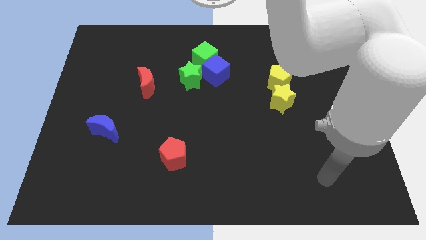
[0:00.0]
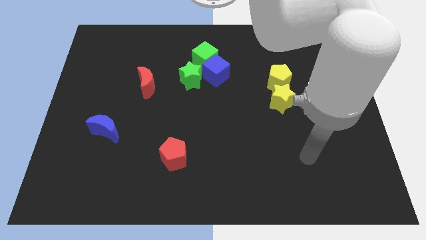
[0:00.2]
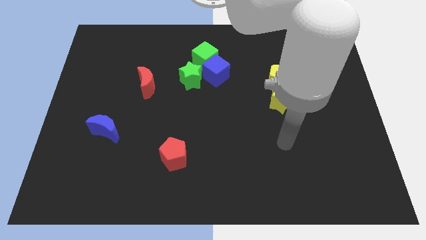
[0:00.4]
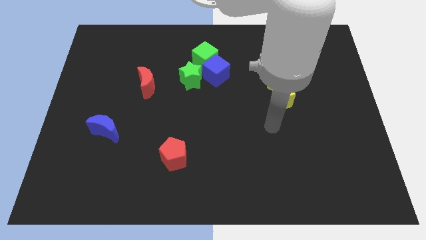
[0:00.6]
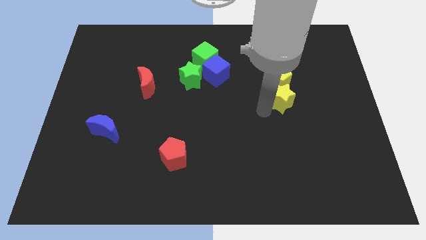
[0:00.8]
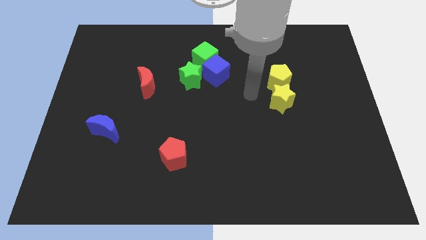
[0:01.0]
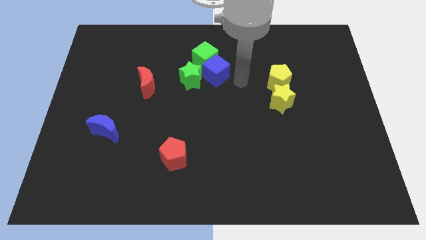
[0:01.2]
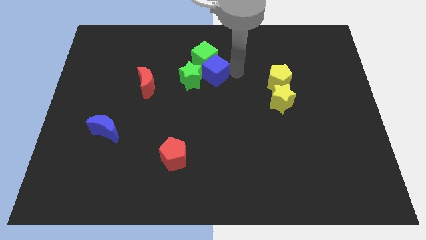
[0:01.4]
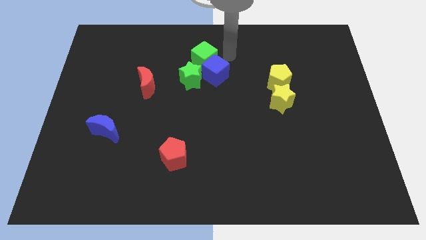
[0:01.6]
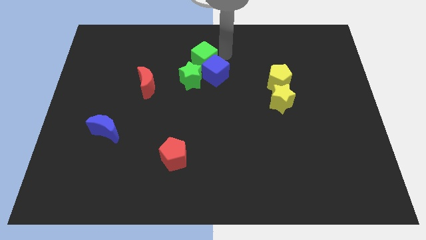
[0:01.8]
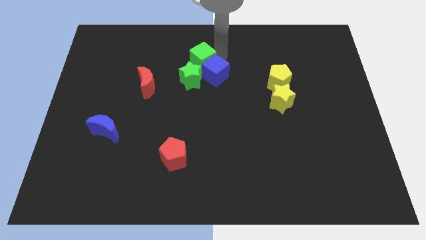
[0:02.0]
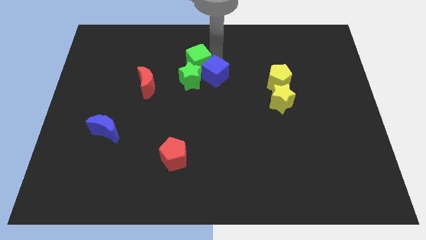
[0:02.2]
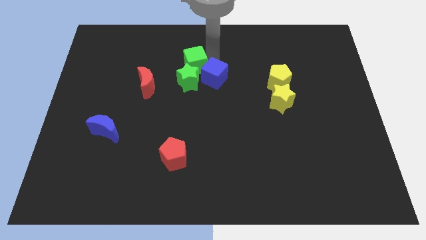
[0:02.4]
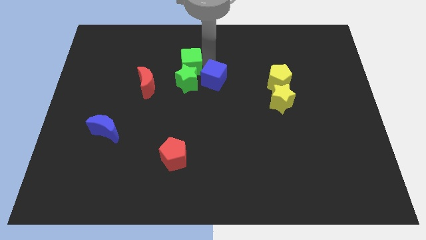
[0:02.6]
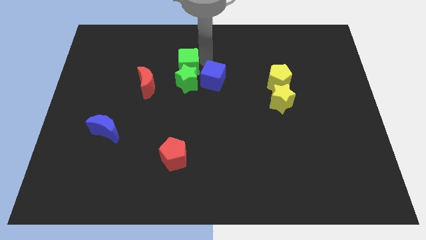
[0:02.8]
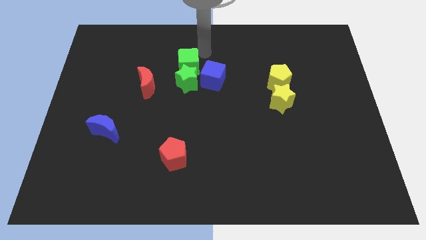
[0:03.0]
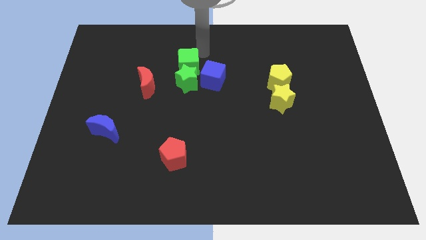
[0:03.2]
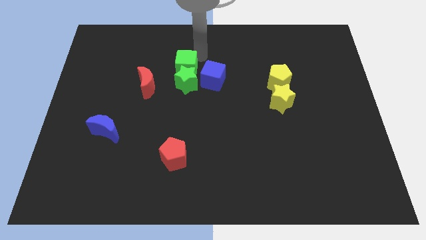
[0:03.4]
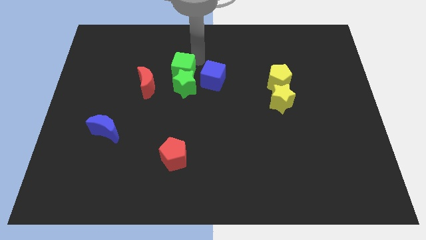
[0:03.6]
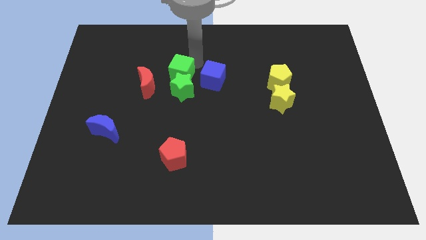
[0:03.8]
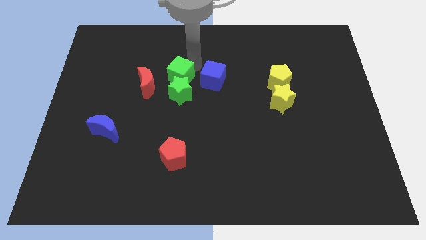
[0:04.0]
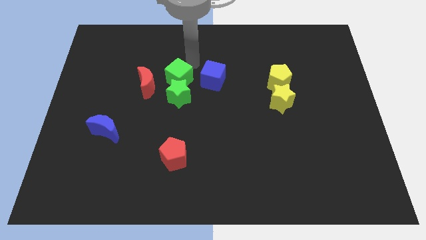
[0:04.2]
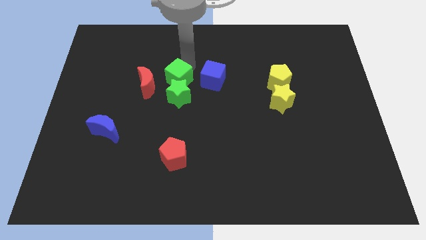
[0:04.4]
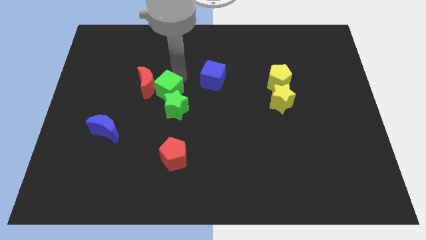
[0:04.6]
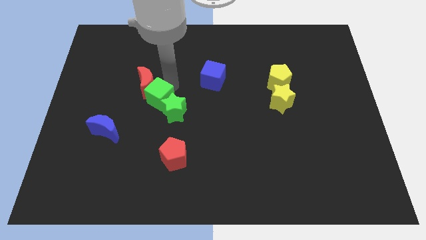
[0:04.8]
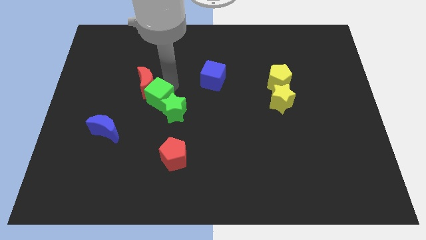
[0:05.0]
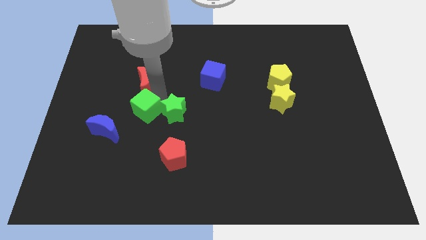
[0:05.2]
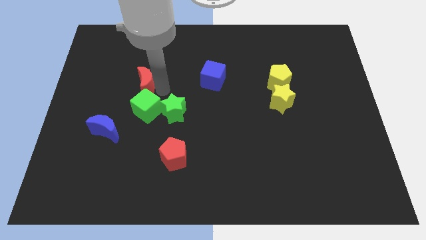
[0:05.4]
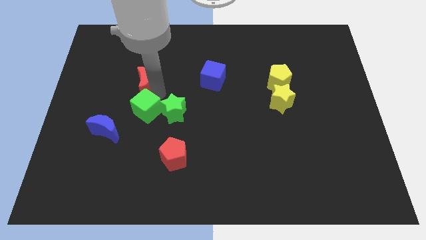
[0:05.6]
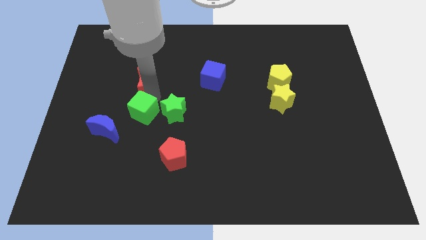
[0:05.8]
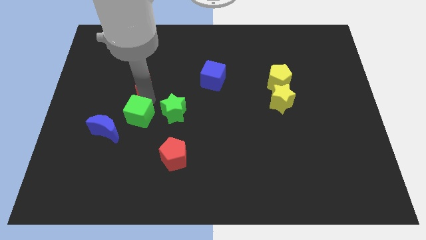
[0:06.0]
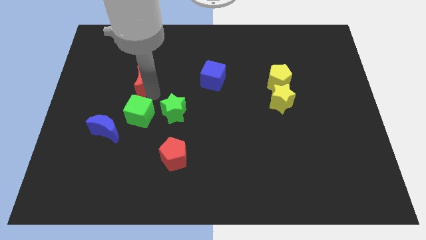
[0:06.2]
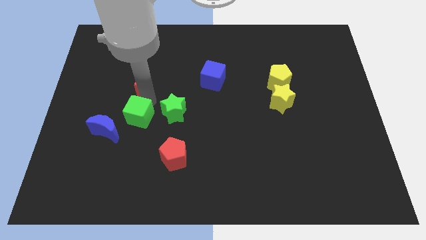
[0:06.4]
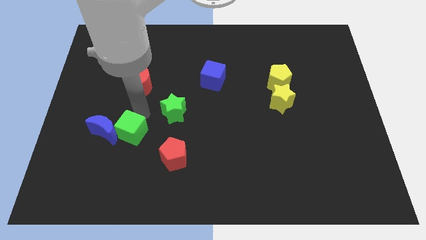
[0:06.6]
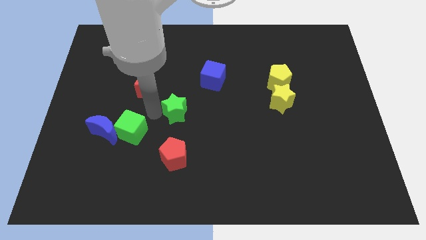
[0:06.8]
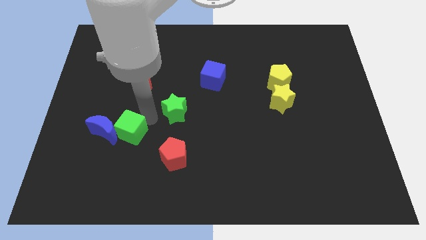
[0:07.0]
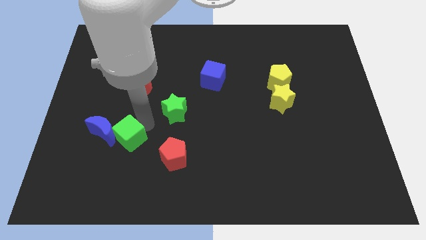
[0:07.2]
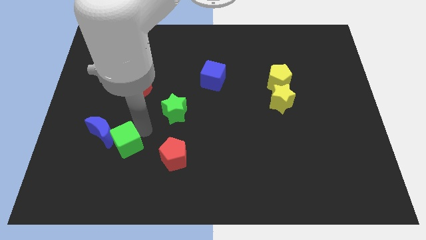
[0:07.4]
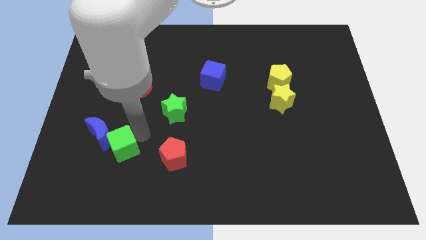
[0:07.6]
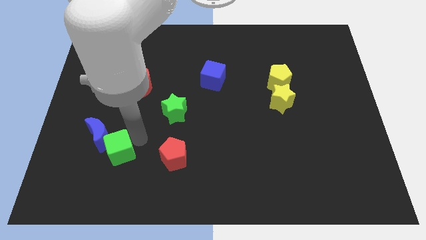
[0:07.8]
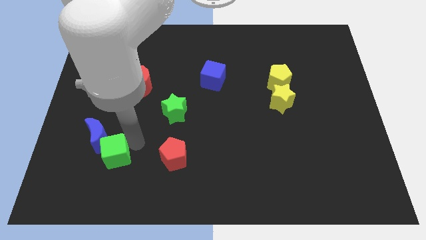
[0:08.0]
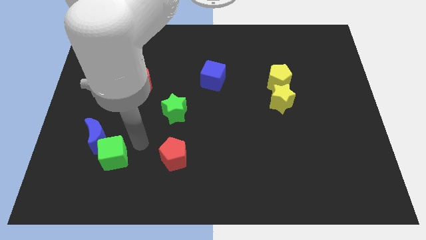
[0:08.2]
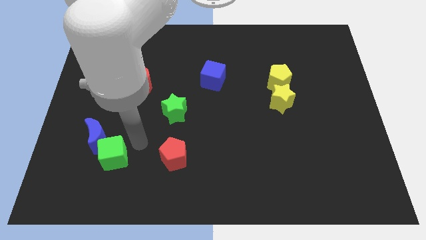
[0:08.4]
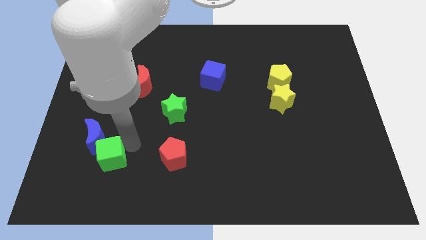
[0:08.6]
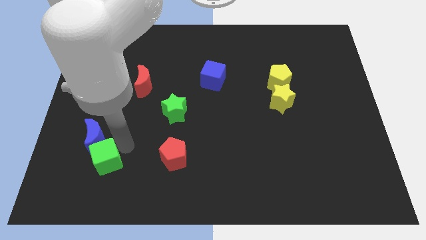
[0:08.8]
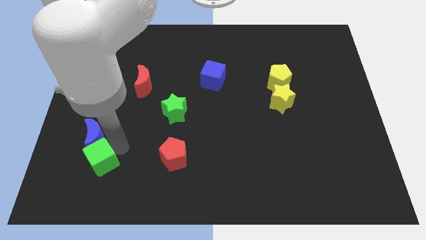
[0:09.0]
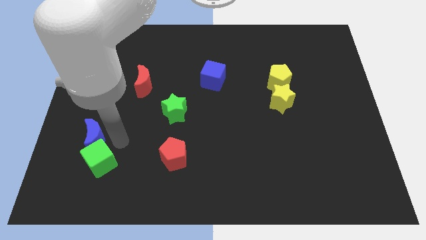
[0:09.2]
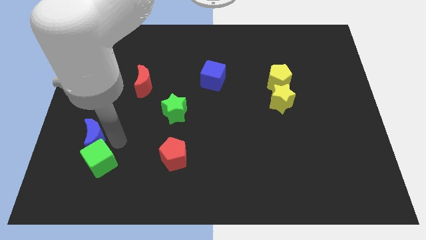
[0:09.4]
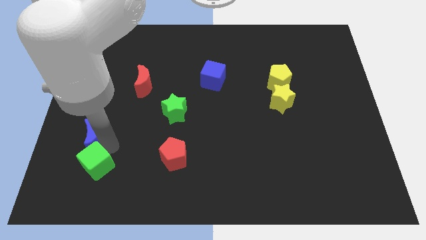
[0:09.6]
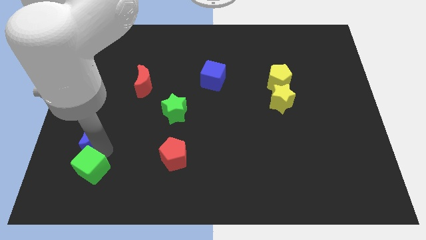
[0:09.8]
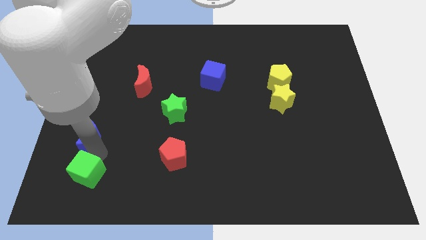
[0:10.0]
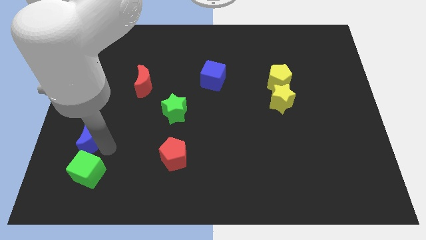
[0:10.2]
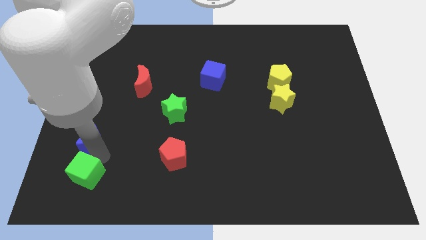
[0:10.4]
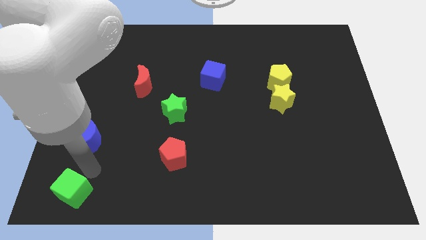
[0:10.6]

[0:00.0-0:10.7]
put the green cube to the bottom left of the board

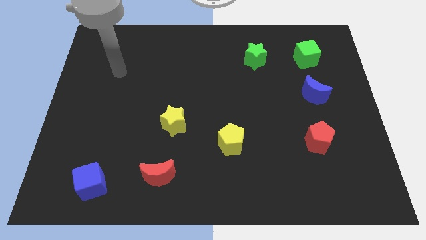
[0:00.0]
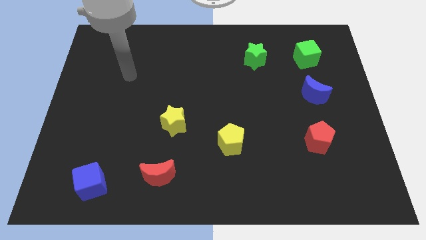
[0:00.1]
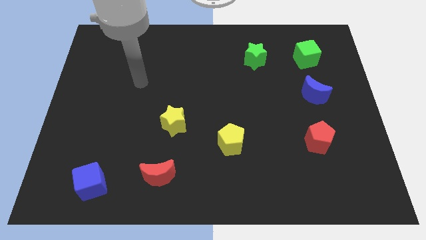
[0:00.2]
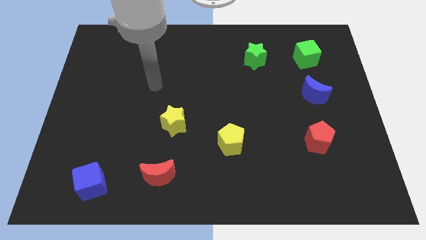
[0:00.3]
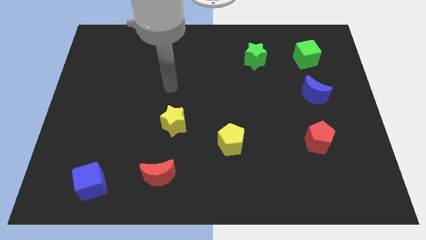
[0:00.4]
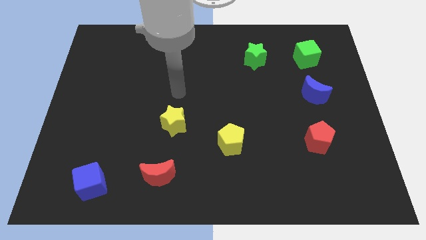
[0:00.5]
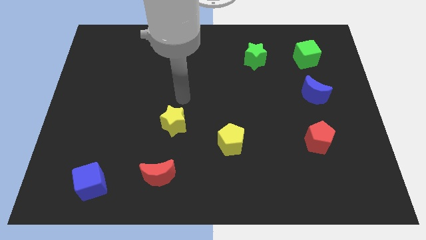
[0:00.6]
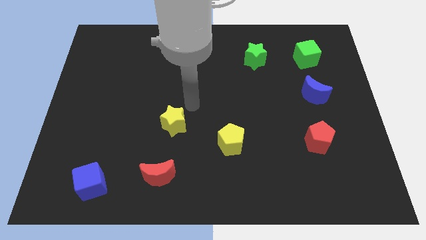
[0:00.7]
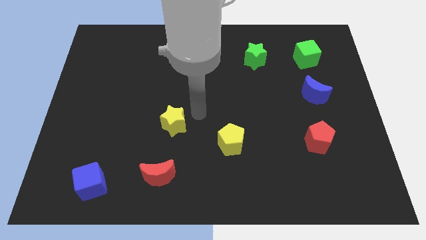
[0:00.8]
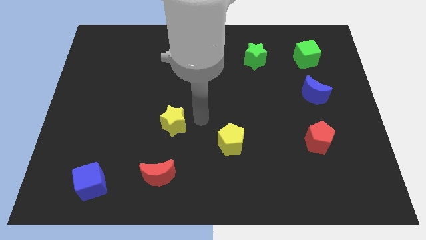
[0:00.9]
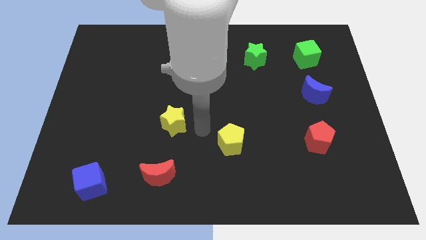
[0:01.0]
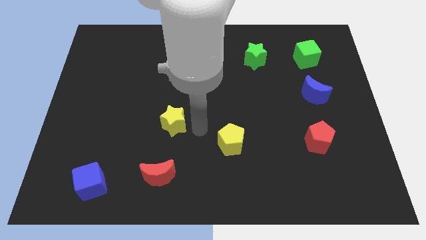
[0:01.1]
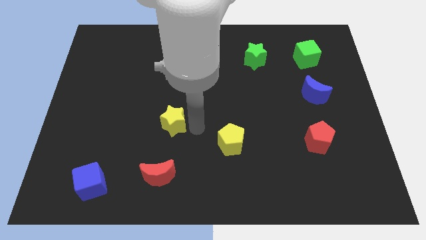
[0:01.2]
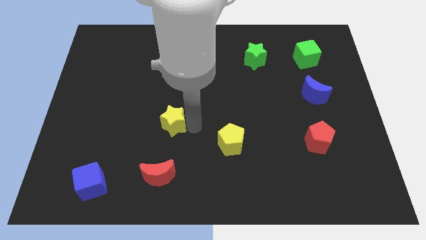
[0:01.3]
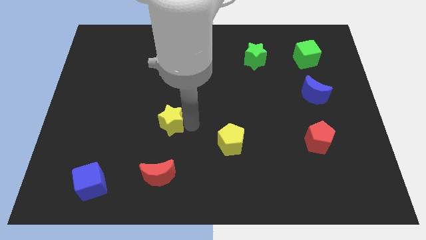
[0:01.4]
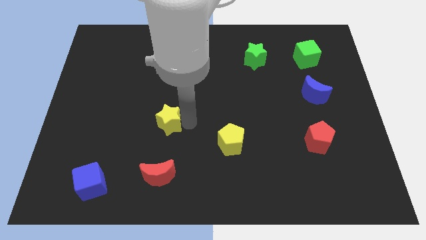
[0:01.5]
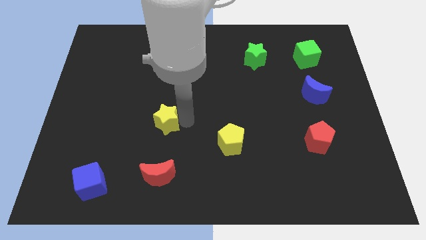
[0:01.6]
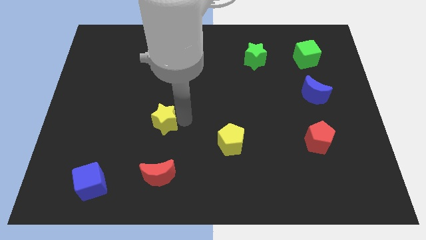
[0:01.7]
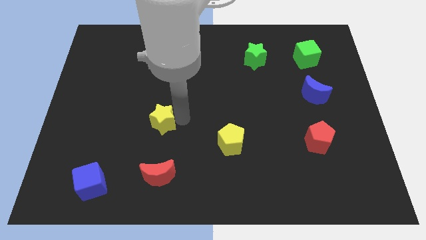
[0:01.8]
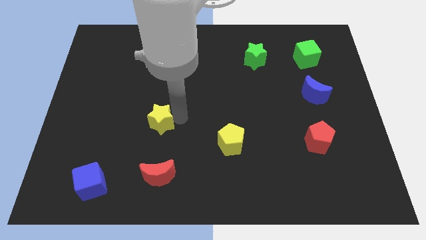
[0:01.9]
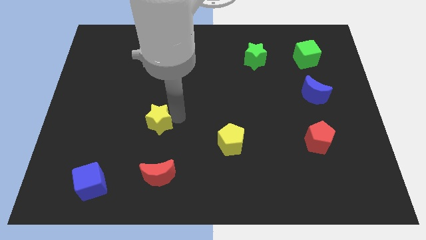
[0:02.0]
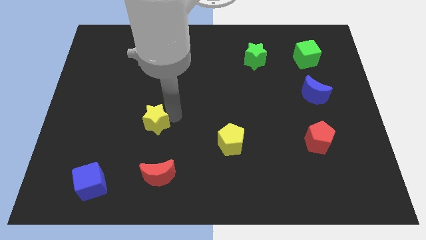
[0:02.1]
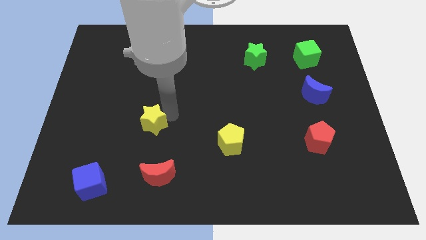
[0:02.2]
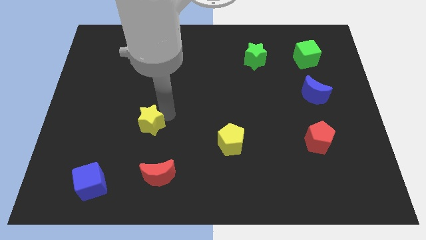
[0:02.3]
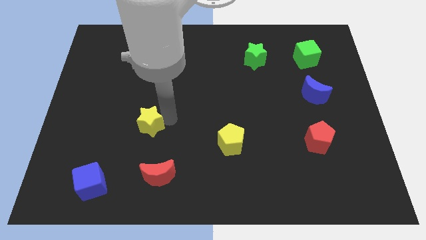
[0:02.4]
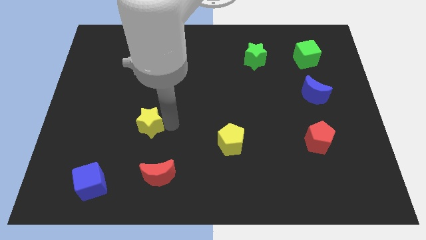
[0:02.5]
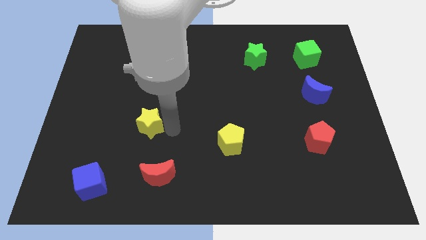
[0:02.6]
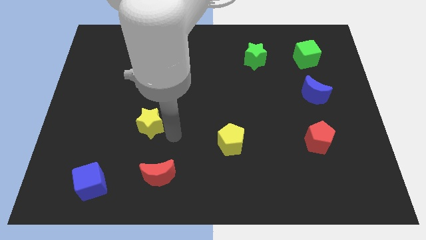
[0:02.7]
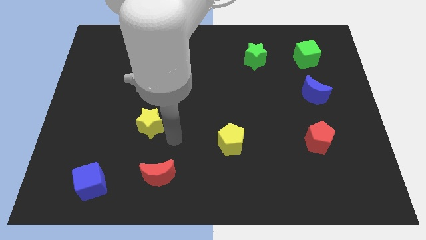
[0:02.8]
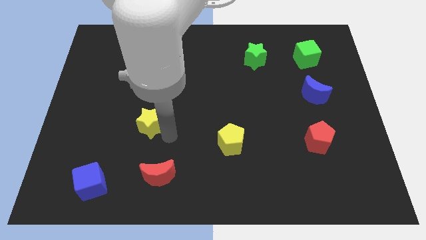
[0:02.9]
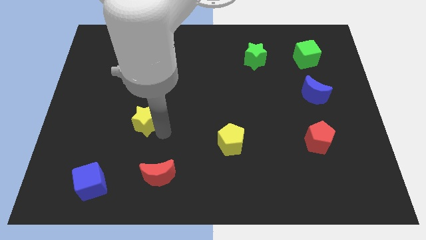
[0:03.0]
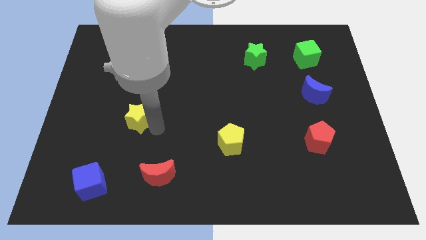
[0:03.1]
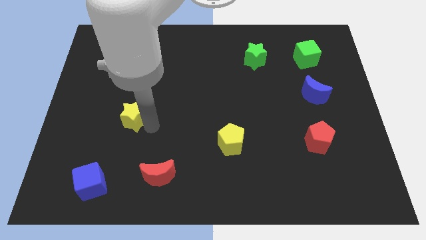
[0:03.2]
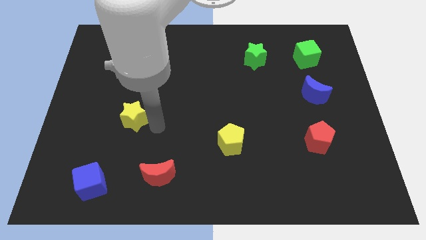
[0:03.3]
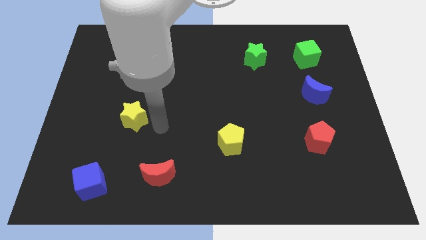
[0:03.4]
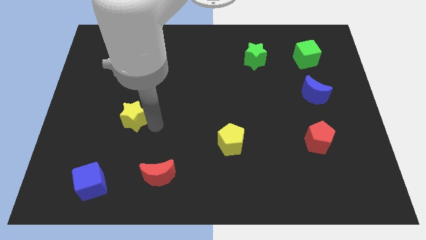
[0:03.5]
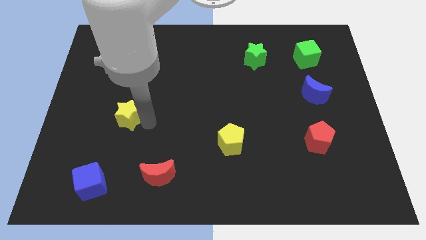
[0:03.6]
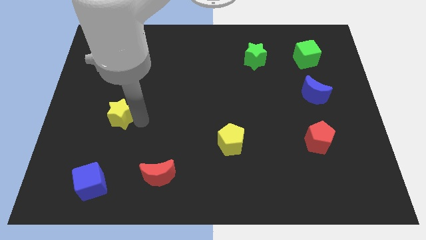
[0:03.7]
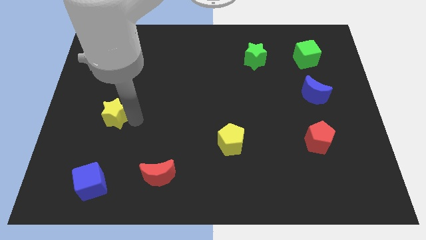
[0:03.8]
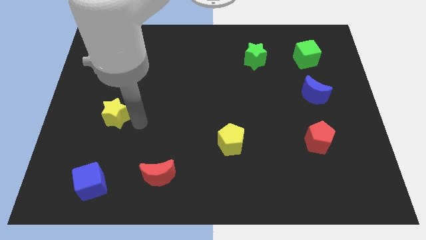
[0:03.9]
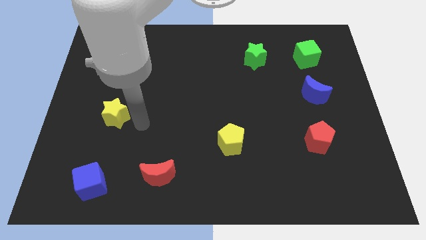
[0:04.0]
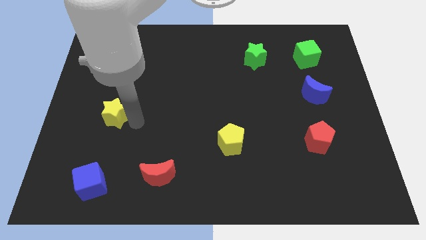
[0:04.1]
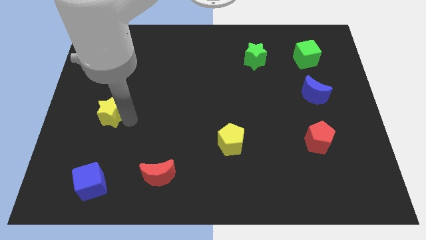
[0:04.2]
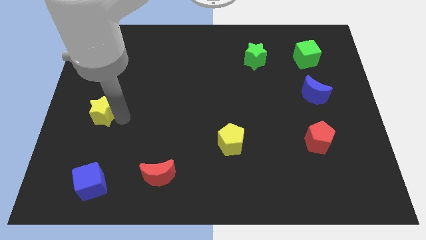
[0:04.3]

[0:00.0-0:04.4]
put the yellow star to the left side
